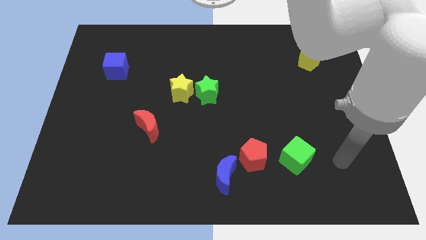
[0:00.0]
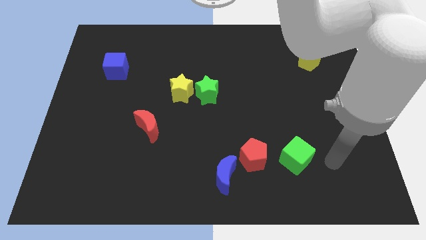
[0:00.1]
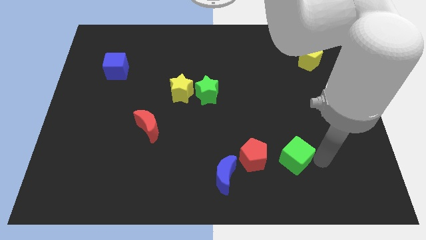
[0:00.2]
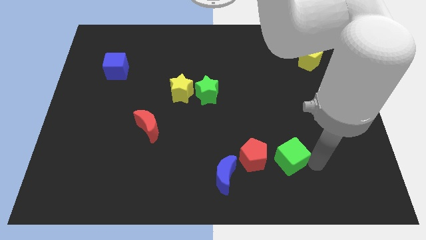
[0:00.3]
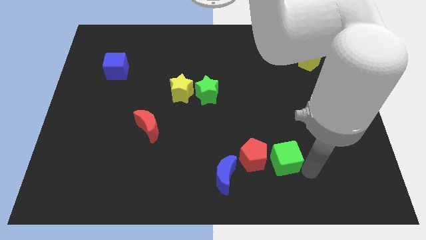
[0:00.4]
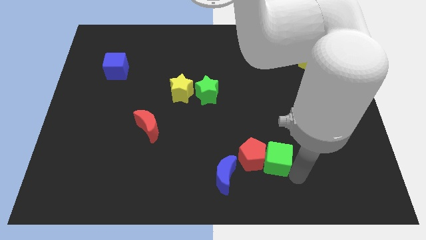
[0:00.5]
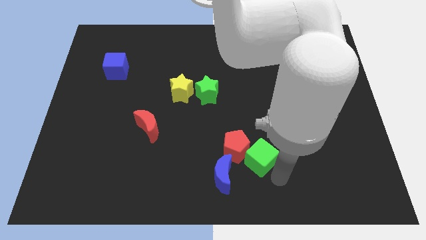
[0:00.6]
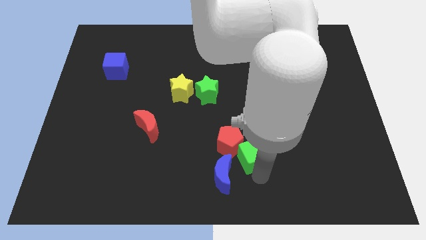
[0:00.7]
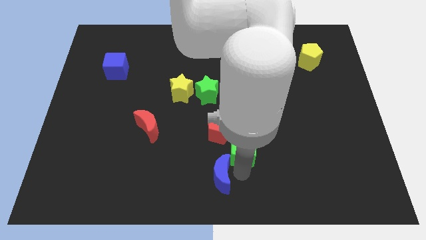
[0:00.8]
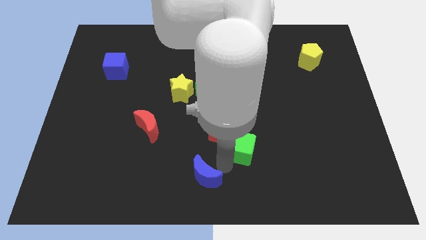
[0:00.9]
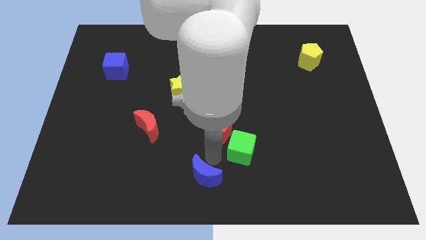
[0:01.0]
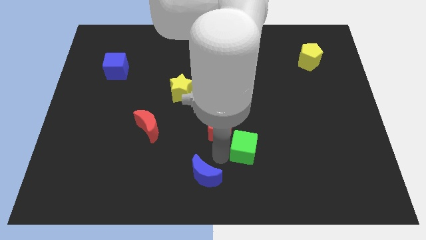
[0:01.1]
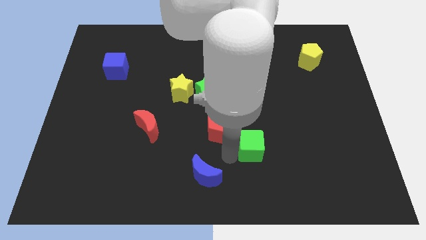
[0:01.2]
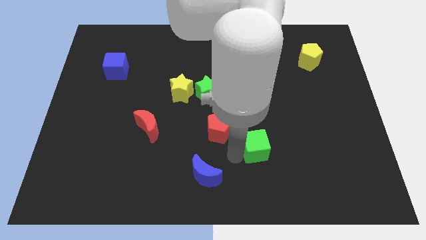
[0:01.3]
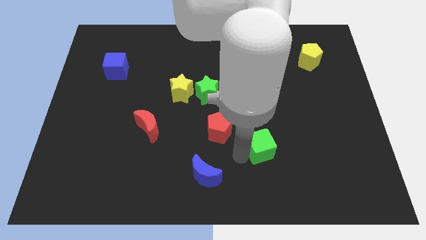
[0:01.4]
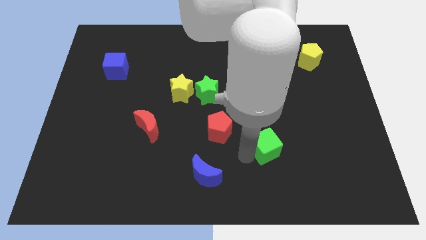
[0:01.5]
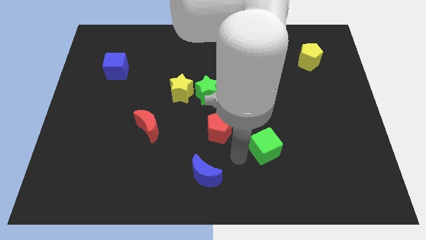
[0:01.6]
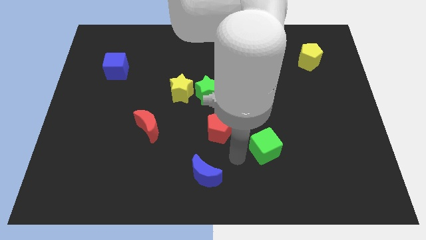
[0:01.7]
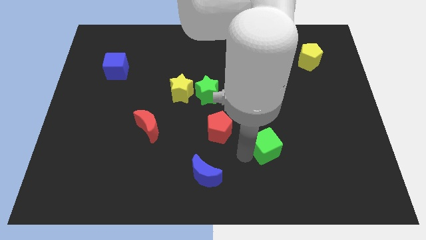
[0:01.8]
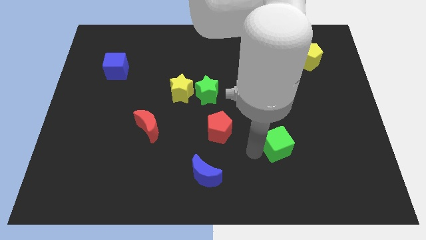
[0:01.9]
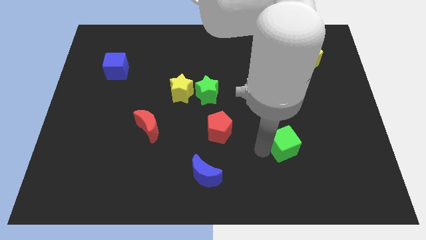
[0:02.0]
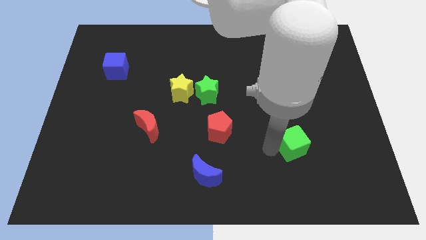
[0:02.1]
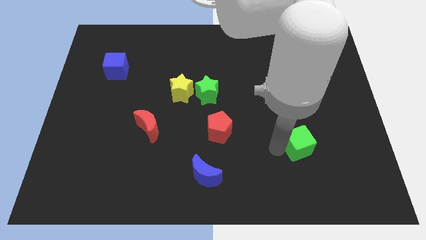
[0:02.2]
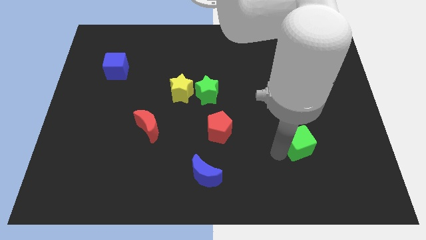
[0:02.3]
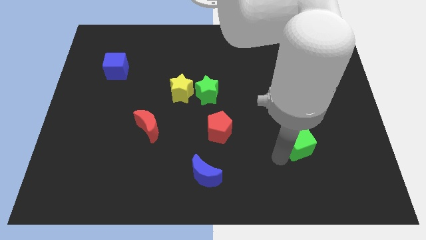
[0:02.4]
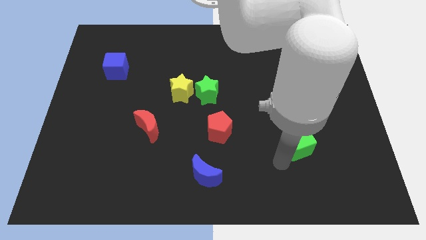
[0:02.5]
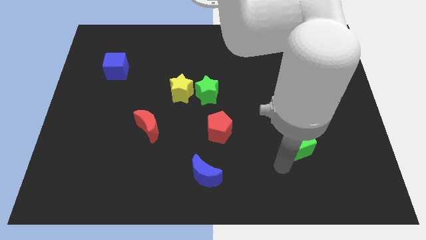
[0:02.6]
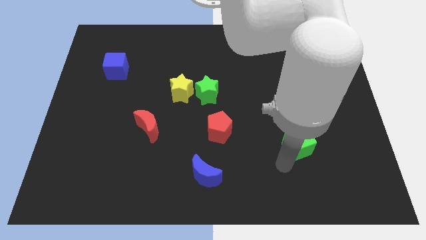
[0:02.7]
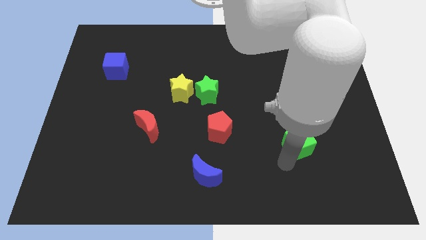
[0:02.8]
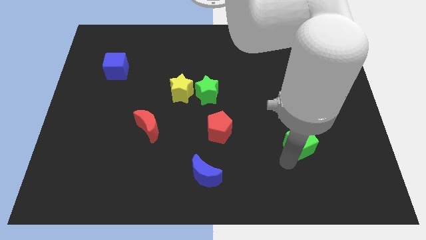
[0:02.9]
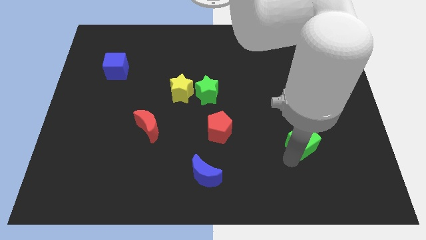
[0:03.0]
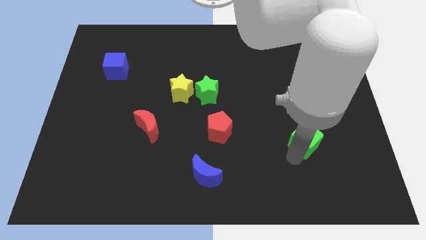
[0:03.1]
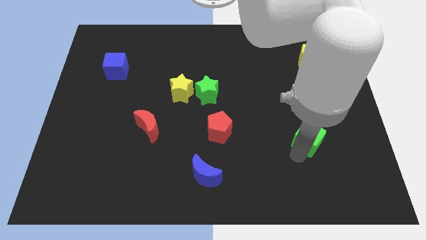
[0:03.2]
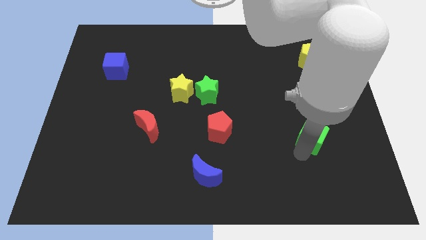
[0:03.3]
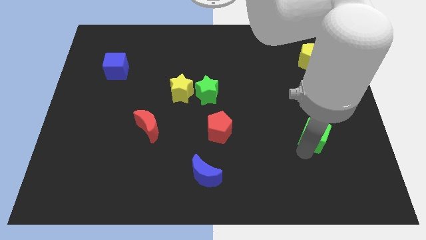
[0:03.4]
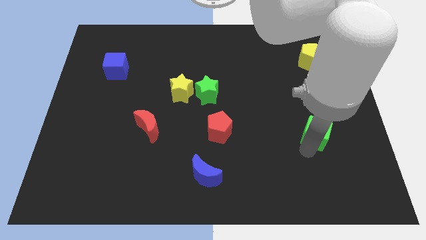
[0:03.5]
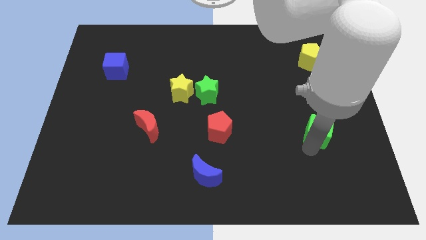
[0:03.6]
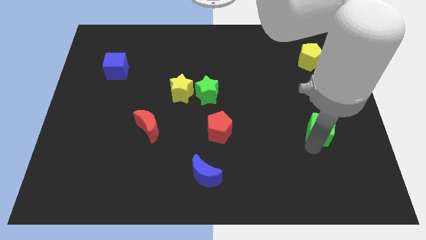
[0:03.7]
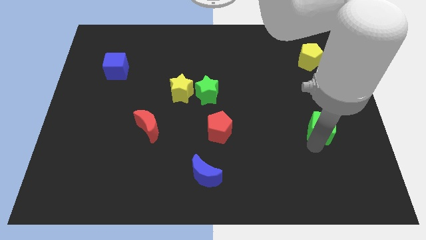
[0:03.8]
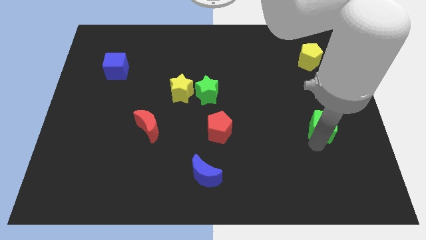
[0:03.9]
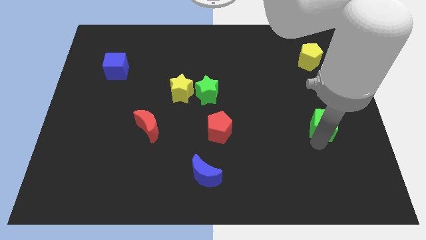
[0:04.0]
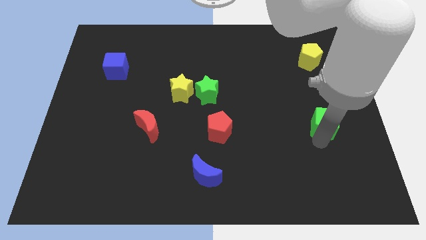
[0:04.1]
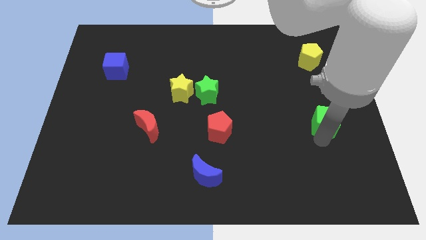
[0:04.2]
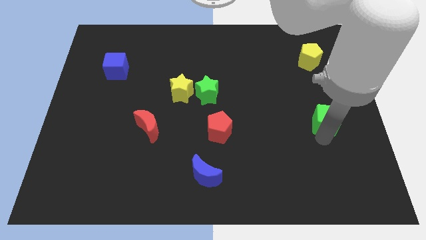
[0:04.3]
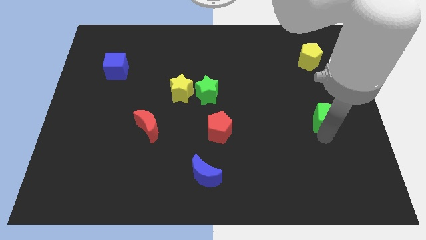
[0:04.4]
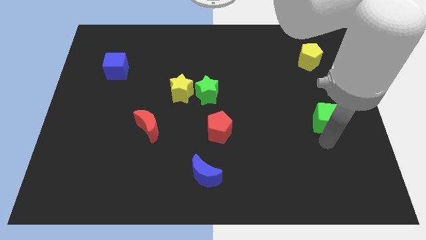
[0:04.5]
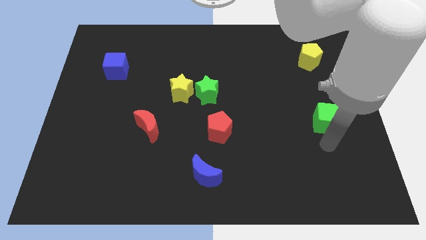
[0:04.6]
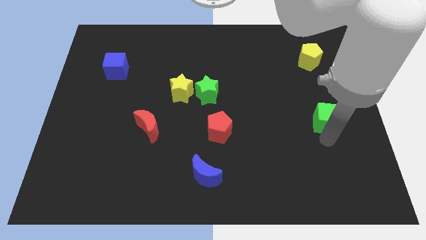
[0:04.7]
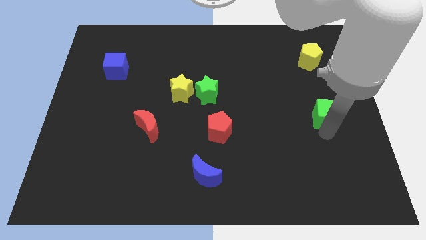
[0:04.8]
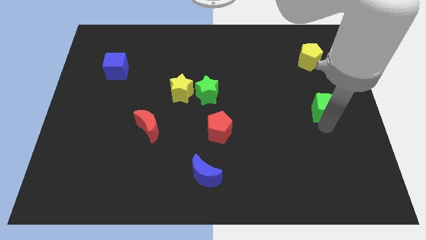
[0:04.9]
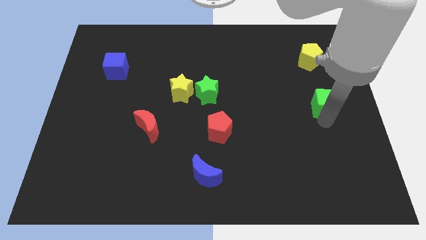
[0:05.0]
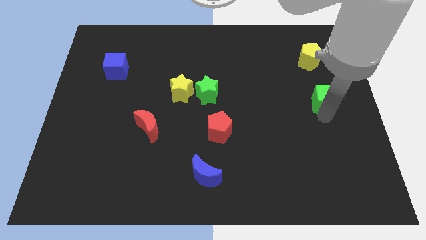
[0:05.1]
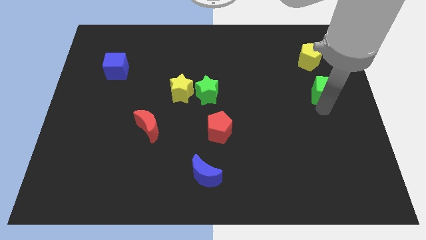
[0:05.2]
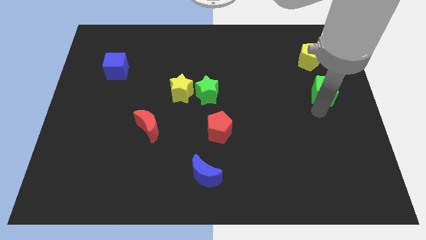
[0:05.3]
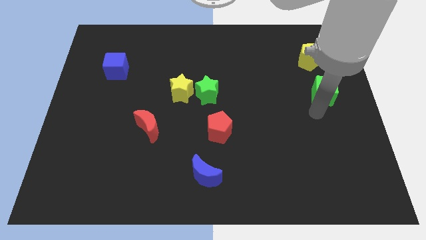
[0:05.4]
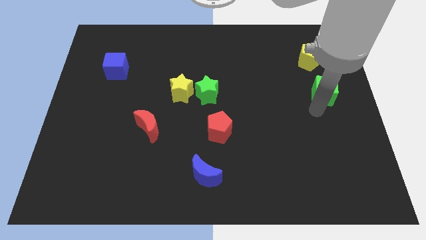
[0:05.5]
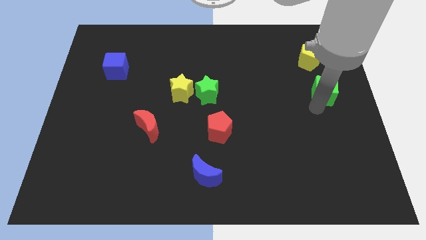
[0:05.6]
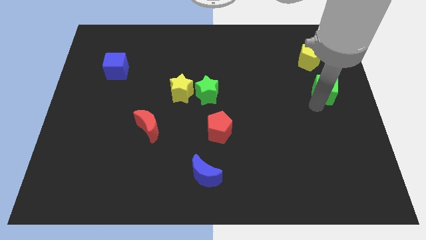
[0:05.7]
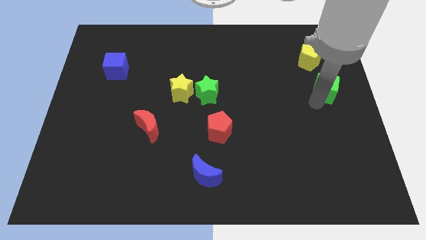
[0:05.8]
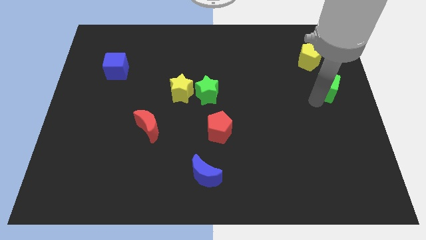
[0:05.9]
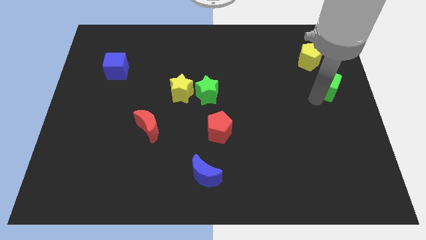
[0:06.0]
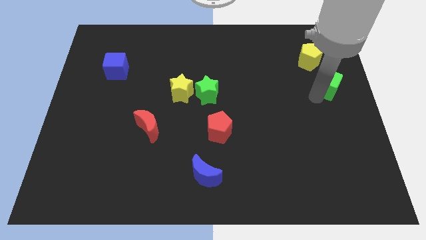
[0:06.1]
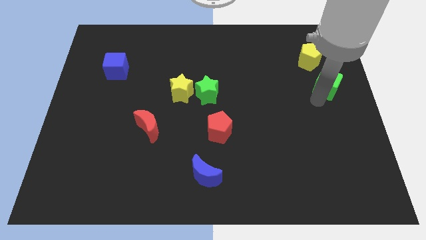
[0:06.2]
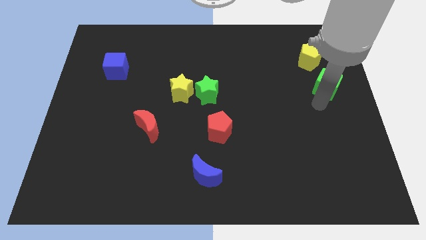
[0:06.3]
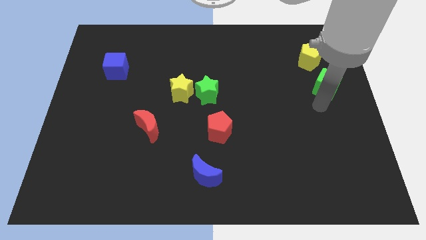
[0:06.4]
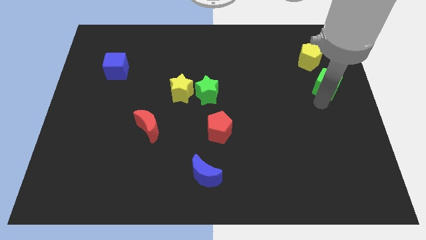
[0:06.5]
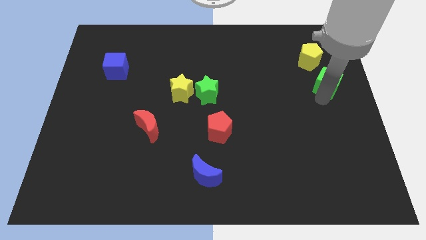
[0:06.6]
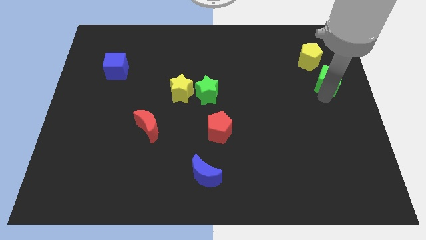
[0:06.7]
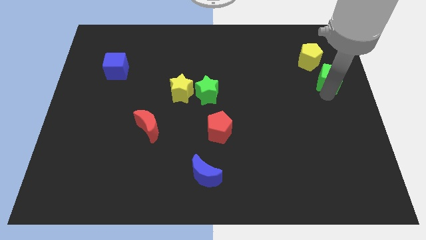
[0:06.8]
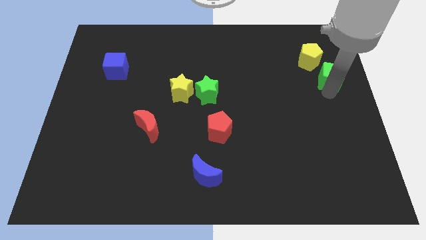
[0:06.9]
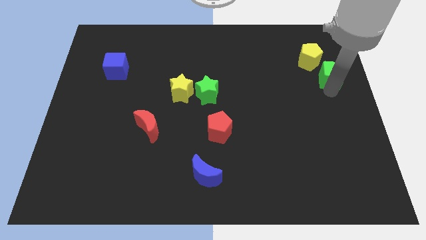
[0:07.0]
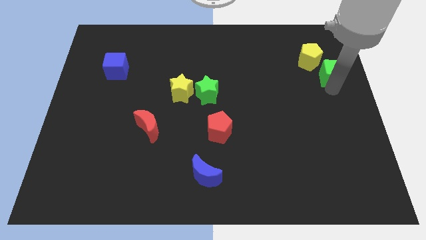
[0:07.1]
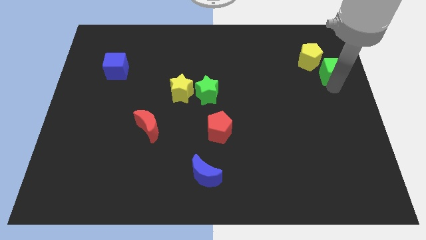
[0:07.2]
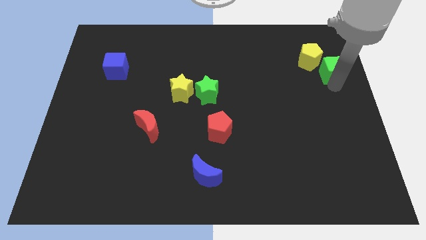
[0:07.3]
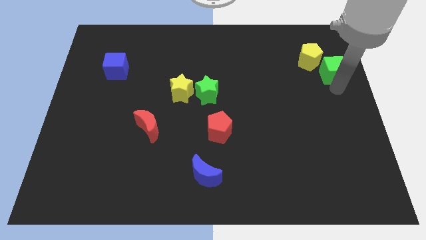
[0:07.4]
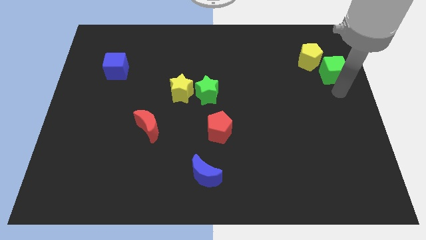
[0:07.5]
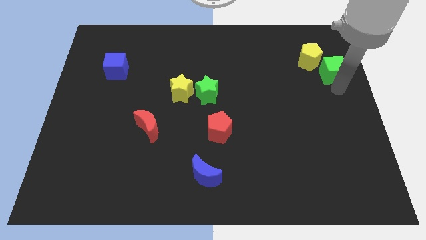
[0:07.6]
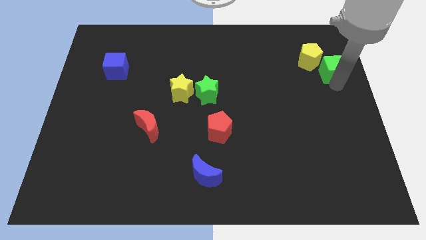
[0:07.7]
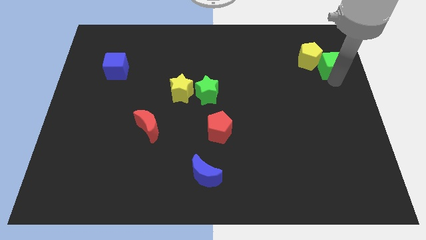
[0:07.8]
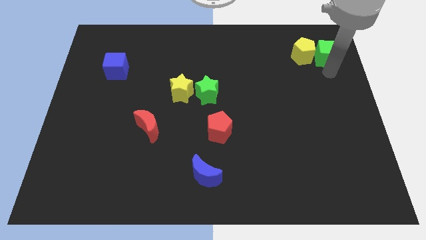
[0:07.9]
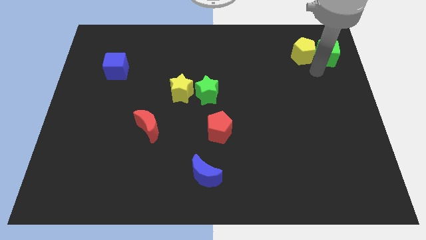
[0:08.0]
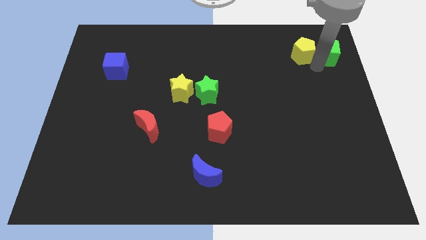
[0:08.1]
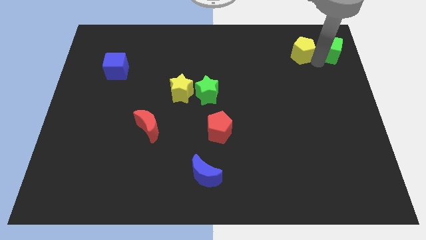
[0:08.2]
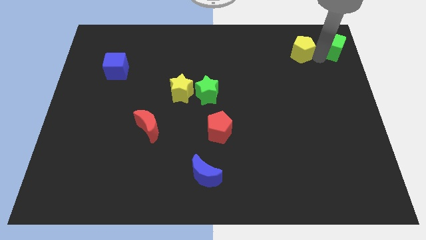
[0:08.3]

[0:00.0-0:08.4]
push the green cube to the upper right corner
